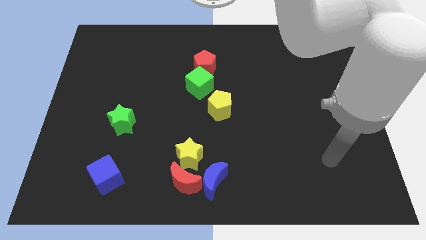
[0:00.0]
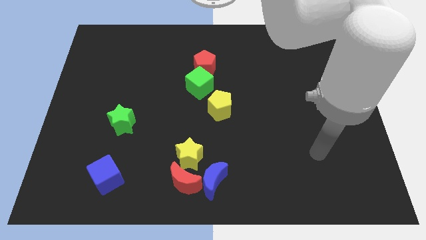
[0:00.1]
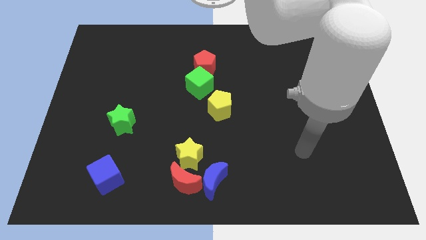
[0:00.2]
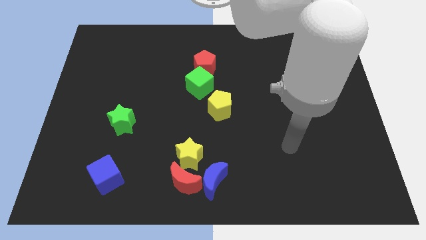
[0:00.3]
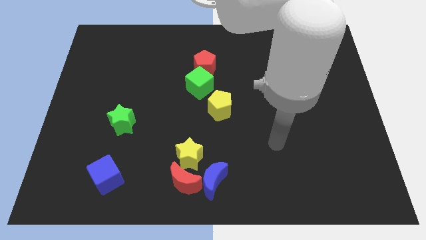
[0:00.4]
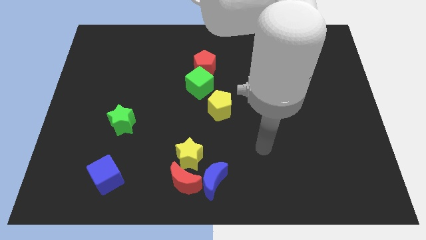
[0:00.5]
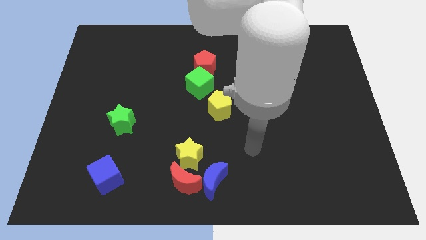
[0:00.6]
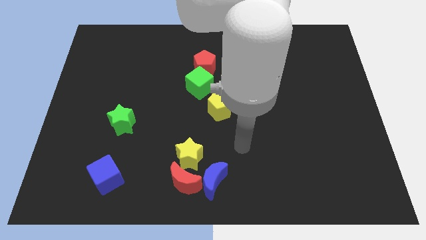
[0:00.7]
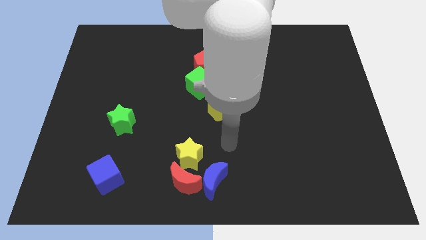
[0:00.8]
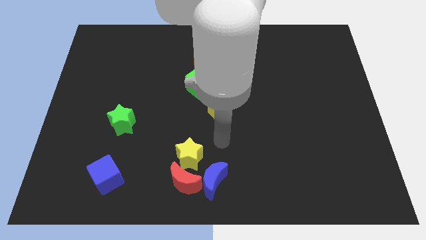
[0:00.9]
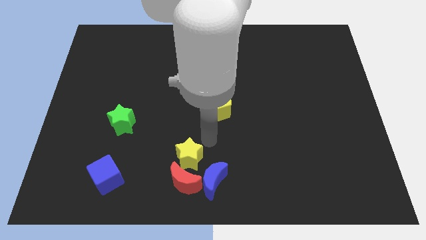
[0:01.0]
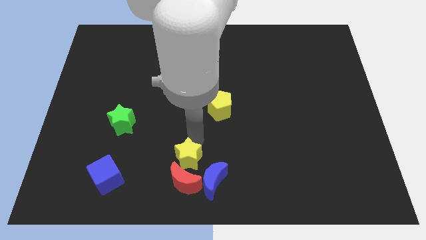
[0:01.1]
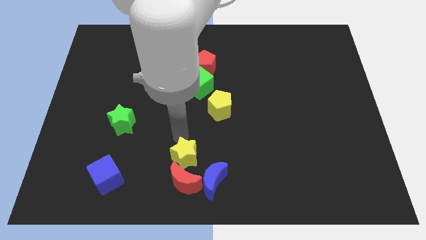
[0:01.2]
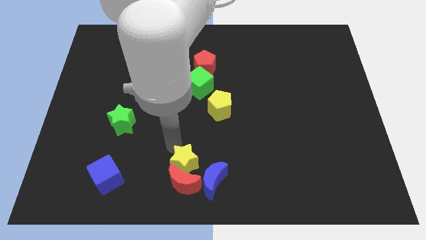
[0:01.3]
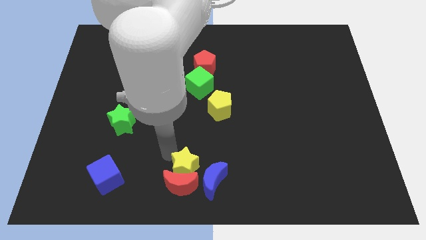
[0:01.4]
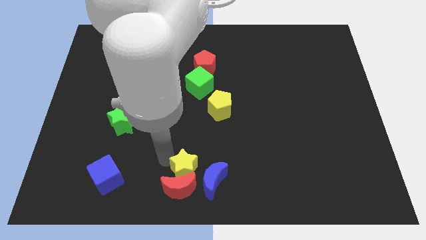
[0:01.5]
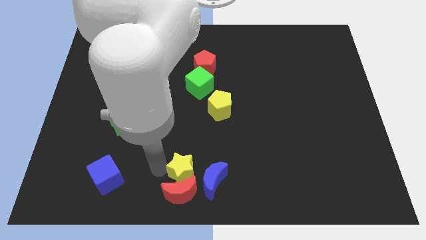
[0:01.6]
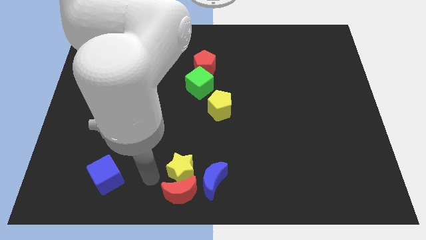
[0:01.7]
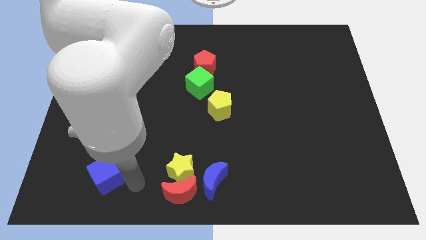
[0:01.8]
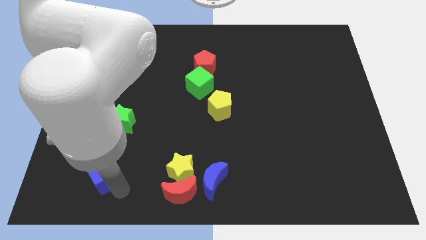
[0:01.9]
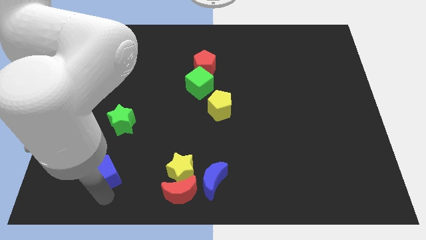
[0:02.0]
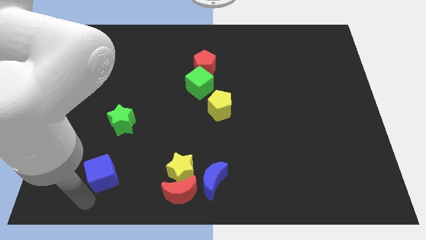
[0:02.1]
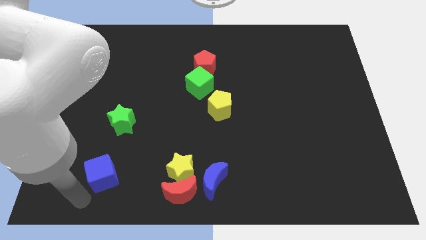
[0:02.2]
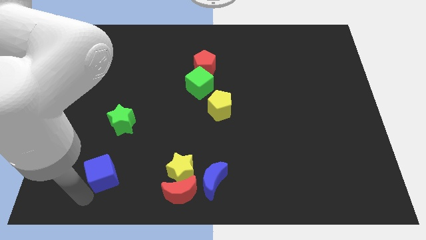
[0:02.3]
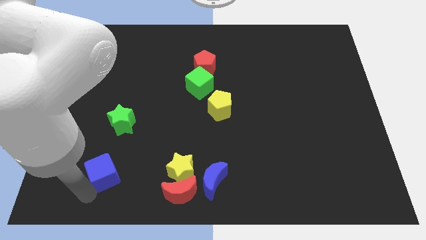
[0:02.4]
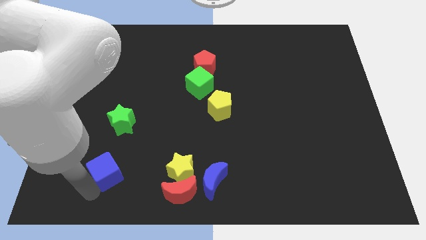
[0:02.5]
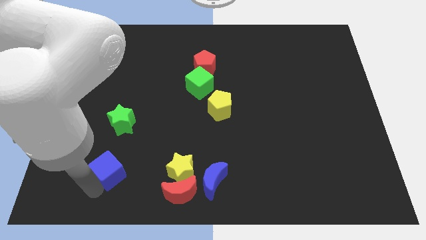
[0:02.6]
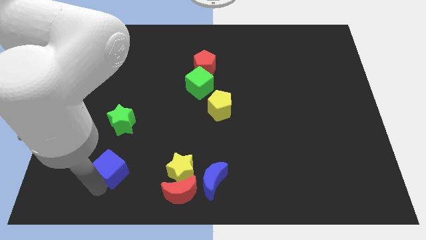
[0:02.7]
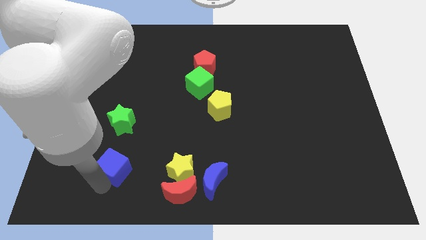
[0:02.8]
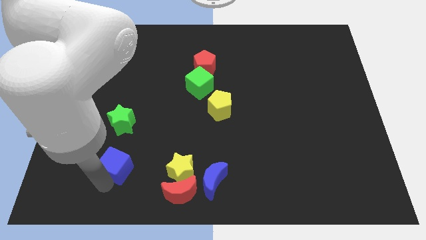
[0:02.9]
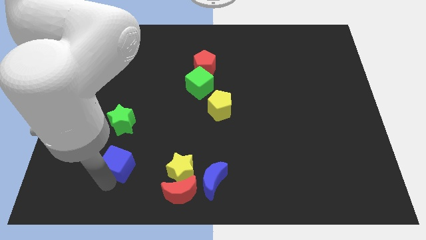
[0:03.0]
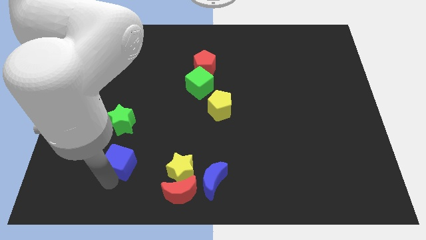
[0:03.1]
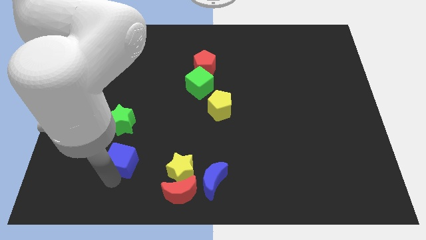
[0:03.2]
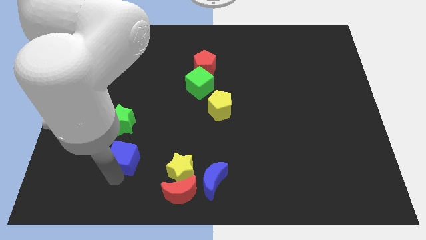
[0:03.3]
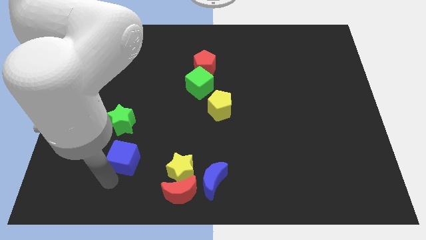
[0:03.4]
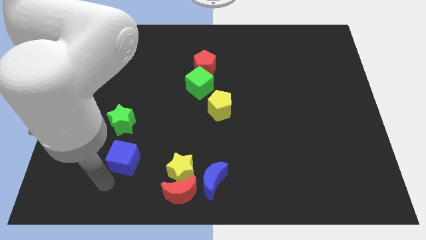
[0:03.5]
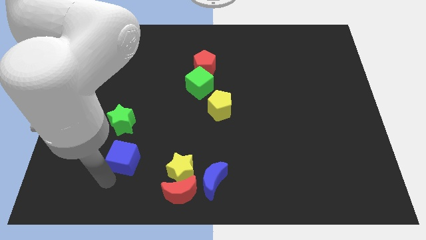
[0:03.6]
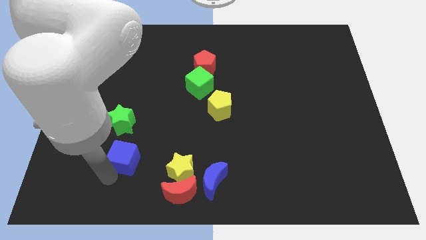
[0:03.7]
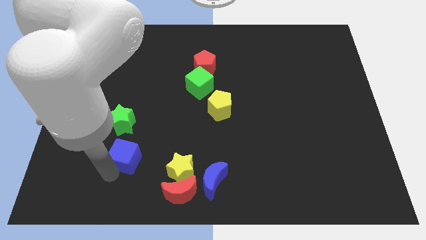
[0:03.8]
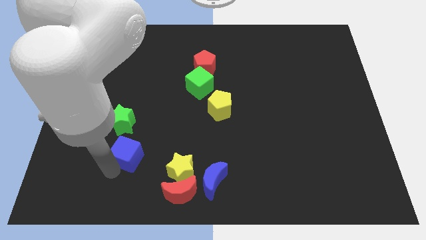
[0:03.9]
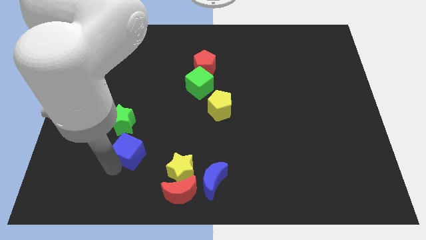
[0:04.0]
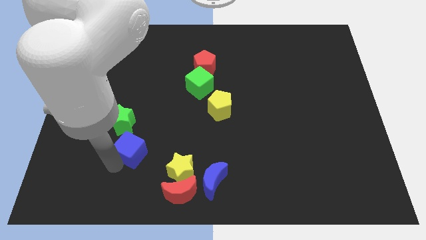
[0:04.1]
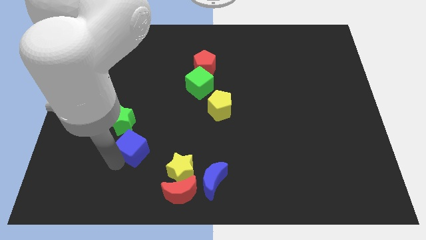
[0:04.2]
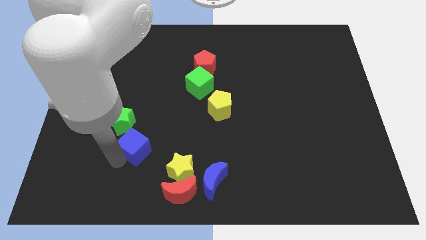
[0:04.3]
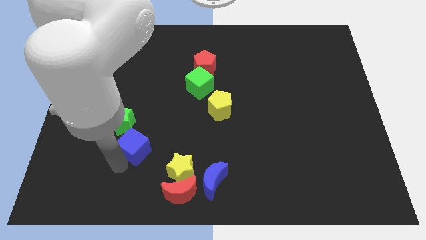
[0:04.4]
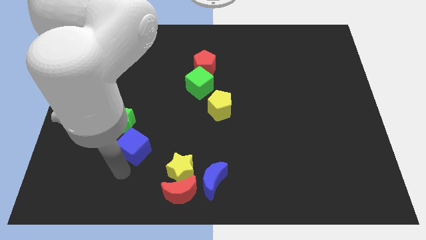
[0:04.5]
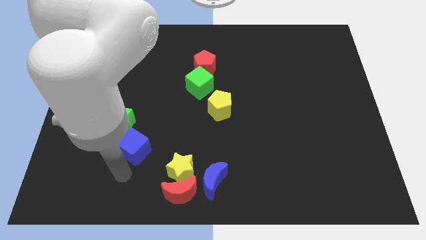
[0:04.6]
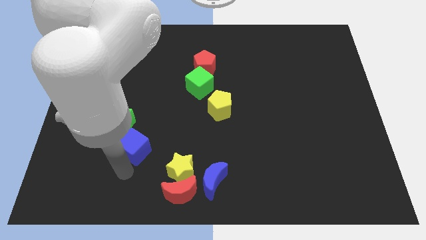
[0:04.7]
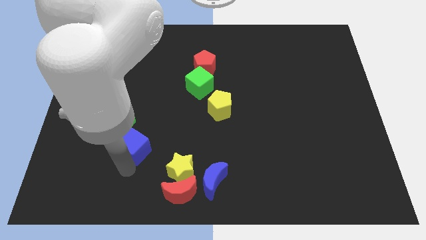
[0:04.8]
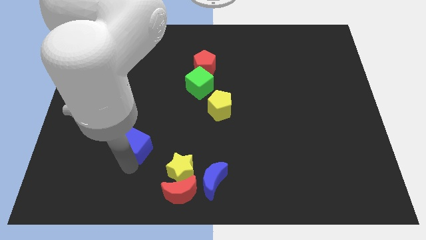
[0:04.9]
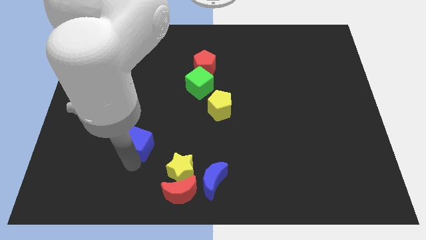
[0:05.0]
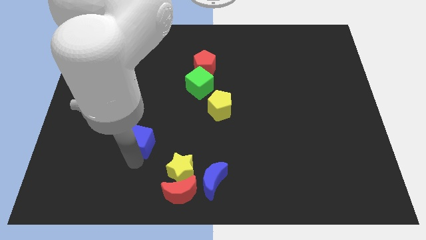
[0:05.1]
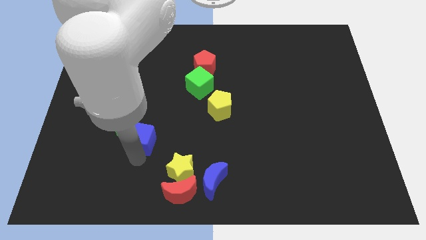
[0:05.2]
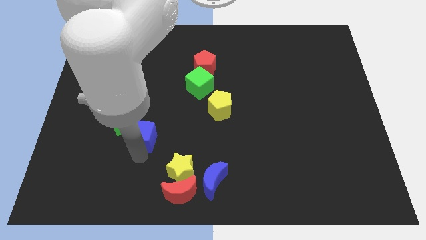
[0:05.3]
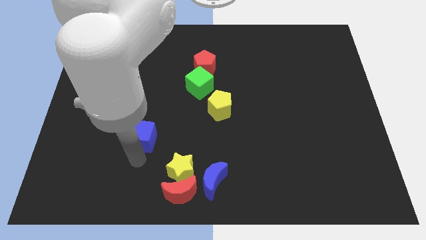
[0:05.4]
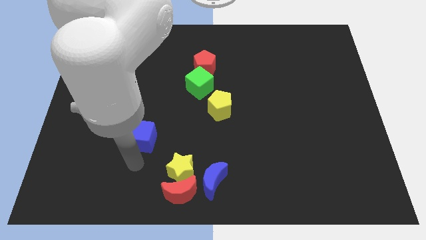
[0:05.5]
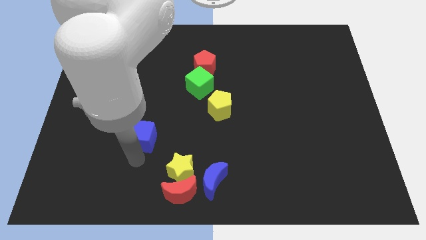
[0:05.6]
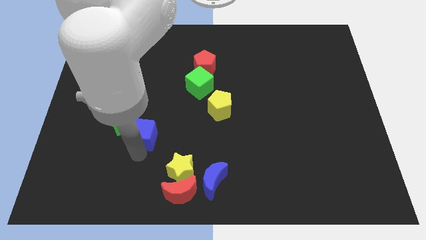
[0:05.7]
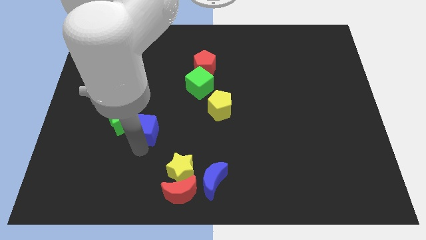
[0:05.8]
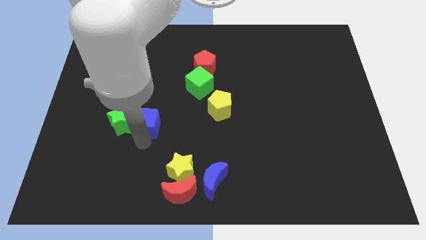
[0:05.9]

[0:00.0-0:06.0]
slide the blue cube diagonally up and to the right of the green star

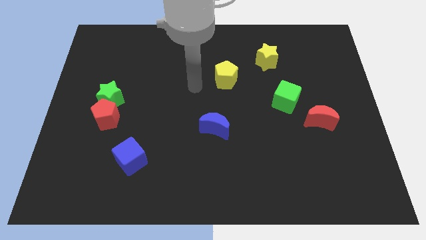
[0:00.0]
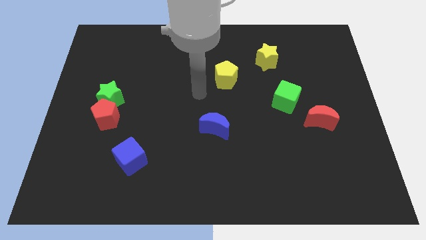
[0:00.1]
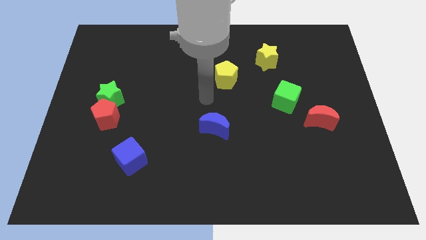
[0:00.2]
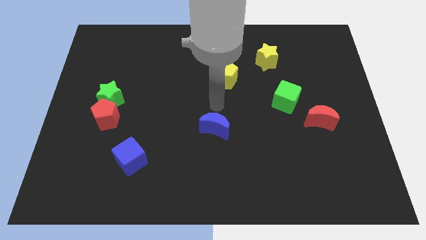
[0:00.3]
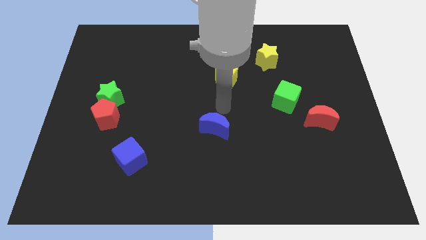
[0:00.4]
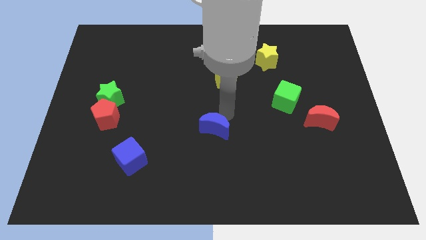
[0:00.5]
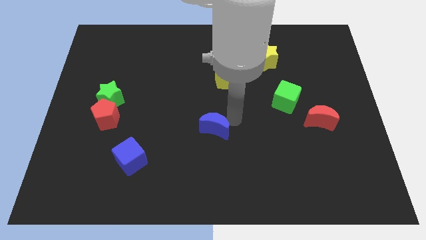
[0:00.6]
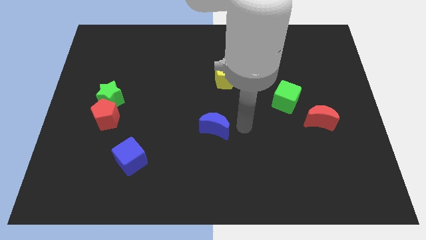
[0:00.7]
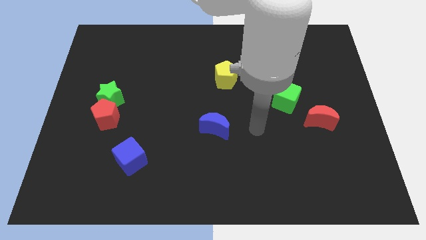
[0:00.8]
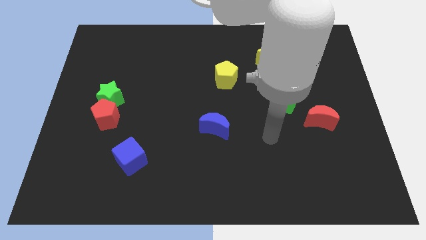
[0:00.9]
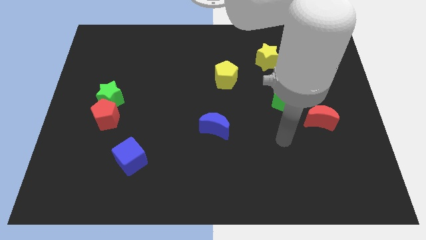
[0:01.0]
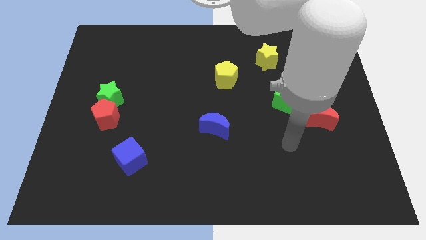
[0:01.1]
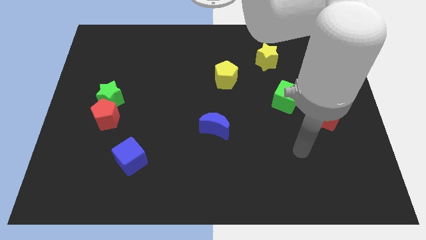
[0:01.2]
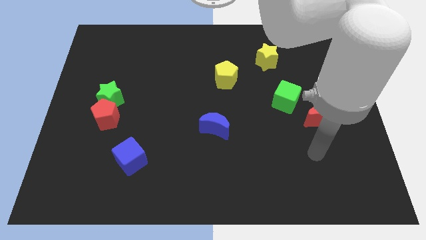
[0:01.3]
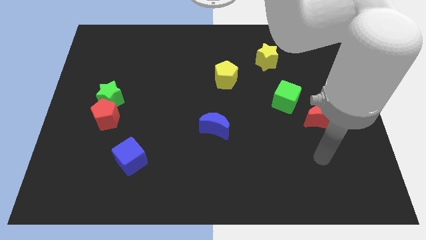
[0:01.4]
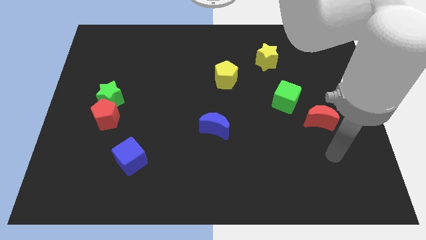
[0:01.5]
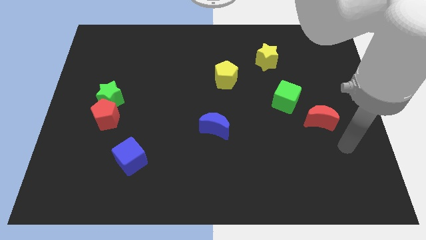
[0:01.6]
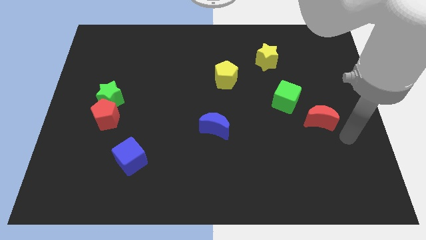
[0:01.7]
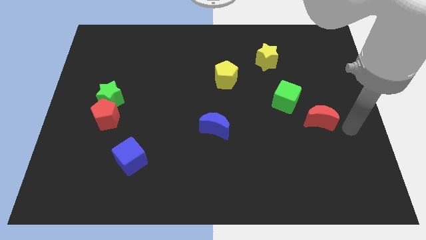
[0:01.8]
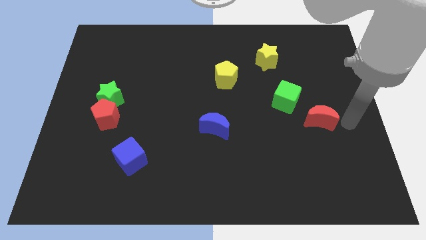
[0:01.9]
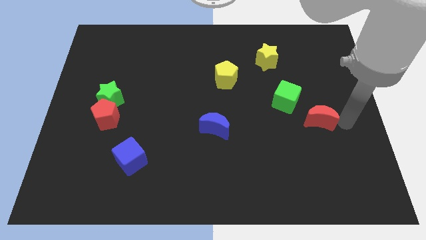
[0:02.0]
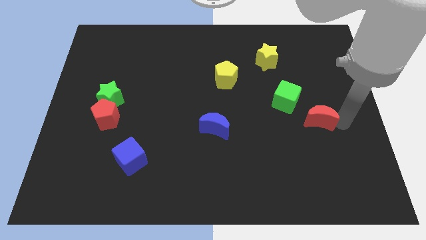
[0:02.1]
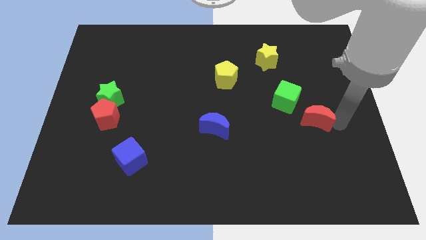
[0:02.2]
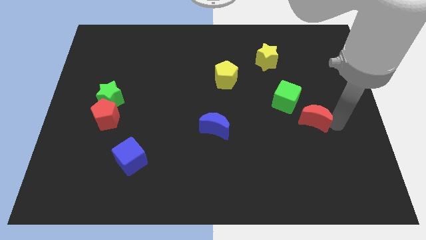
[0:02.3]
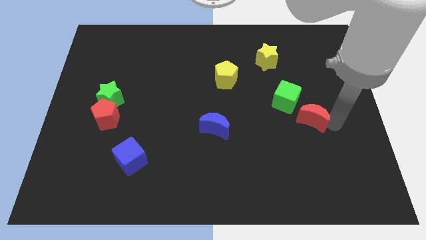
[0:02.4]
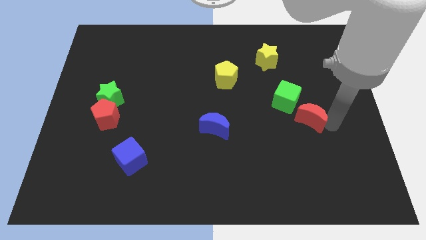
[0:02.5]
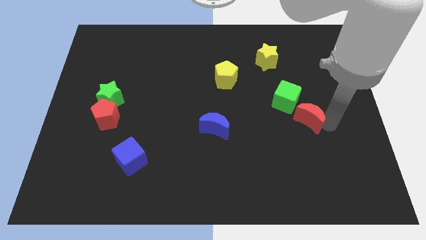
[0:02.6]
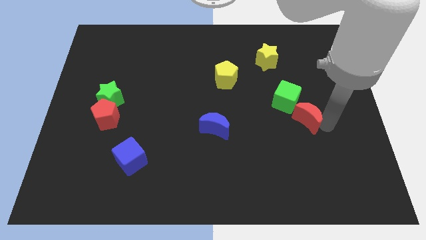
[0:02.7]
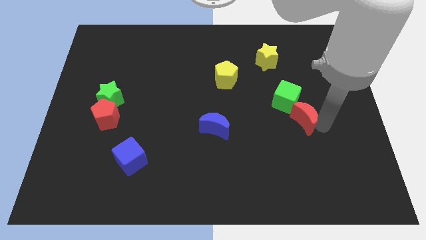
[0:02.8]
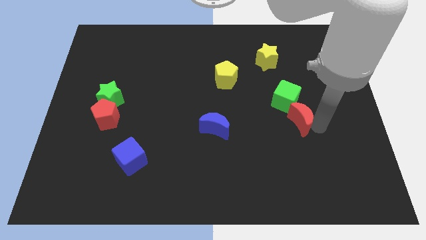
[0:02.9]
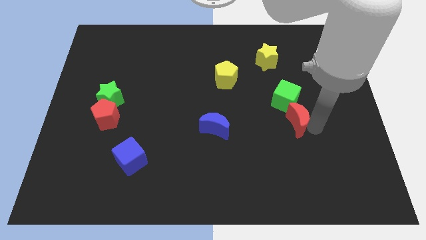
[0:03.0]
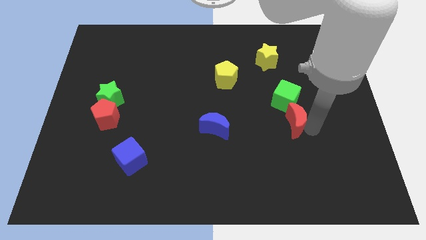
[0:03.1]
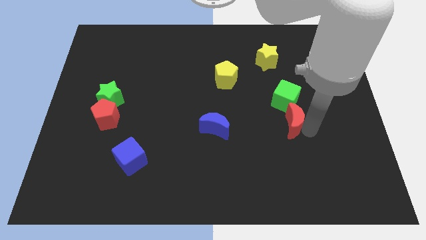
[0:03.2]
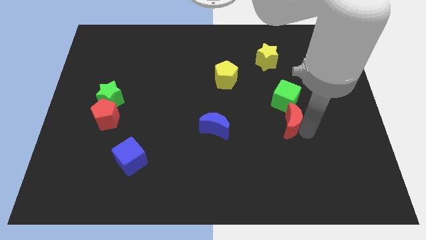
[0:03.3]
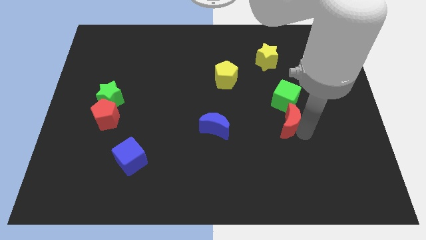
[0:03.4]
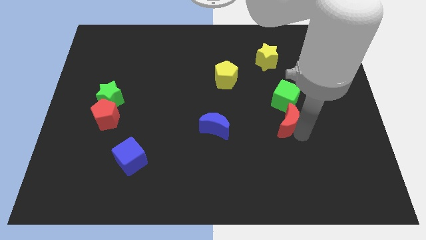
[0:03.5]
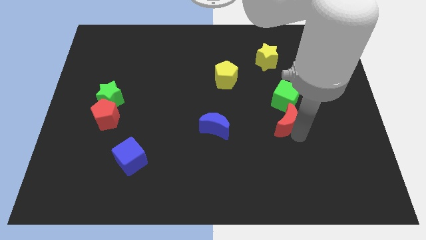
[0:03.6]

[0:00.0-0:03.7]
put the red moon to the bottom left side of the green cube
